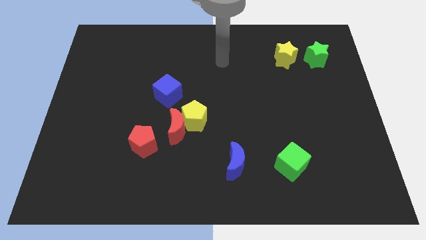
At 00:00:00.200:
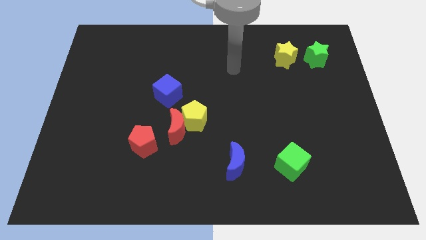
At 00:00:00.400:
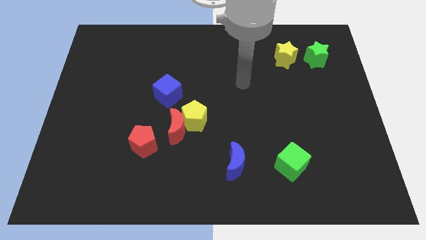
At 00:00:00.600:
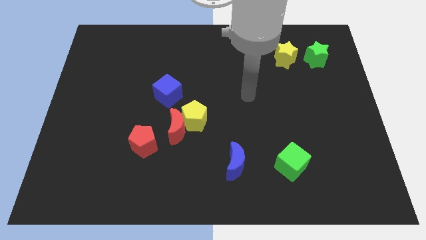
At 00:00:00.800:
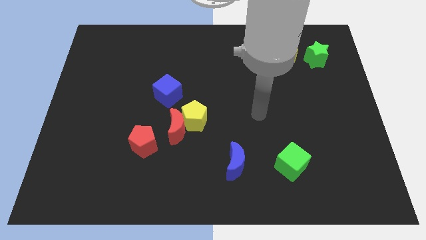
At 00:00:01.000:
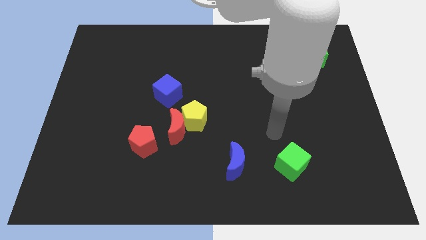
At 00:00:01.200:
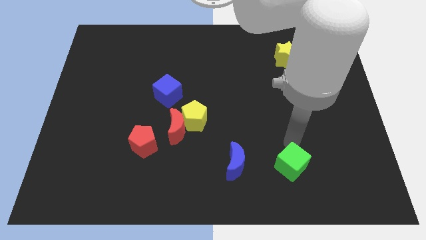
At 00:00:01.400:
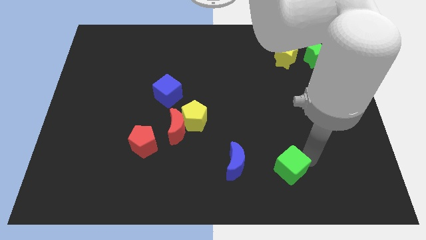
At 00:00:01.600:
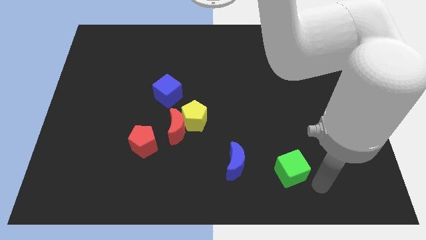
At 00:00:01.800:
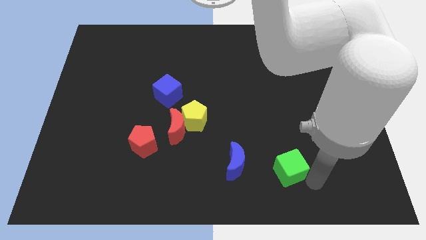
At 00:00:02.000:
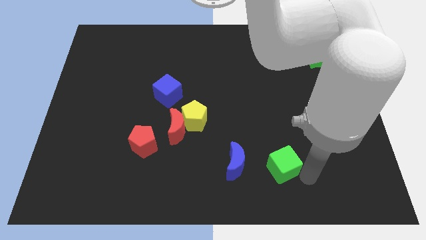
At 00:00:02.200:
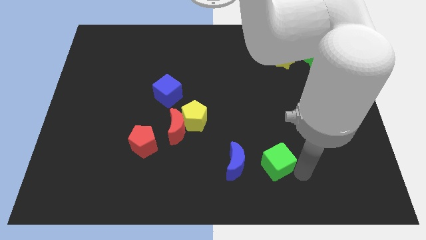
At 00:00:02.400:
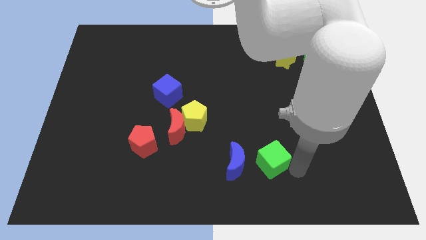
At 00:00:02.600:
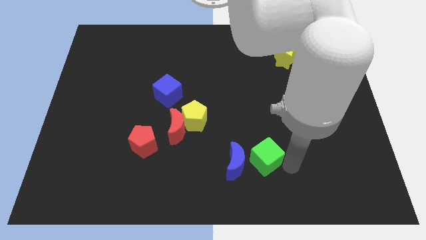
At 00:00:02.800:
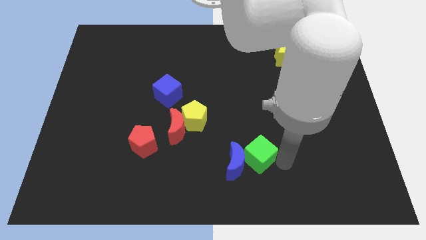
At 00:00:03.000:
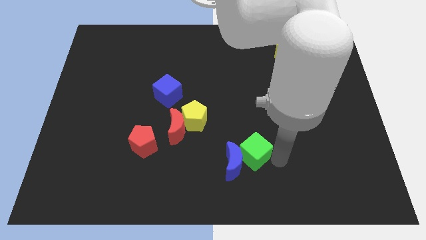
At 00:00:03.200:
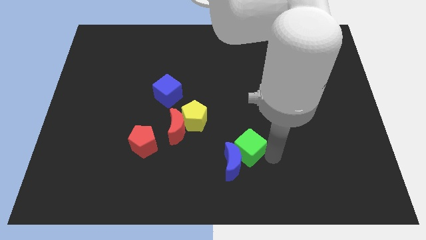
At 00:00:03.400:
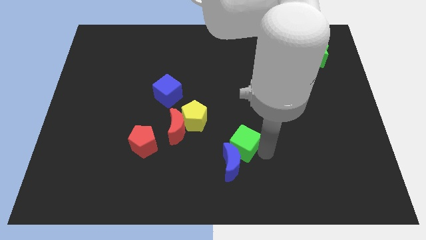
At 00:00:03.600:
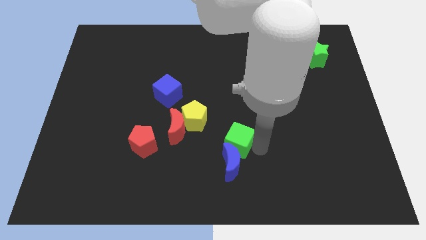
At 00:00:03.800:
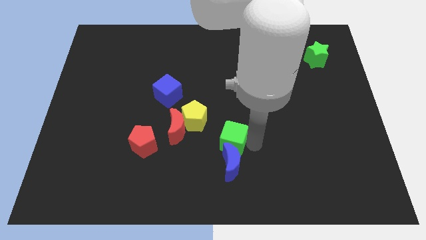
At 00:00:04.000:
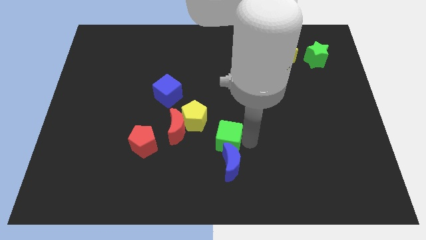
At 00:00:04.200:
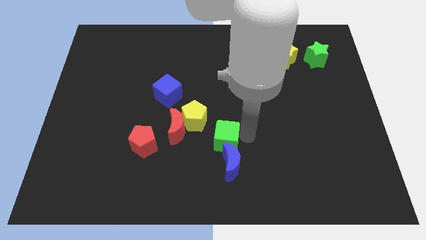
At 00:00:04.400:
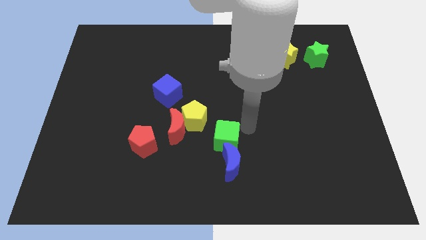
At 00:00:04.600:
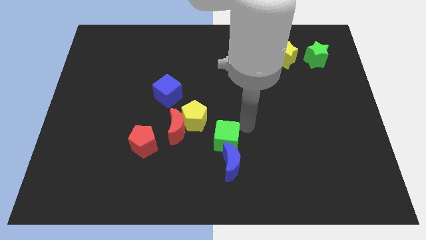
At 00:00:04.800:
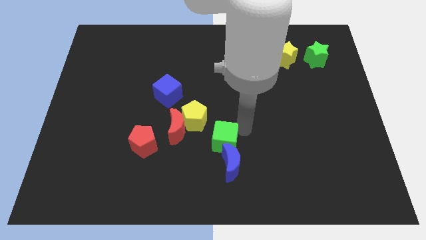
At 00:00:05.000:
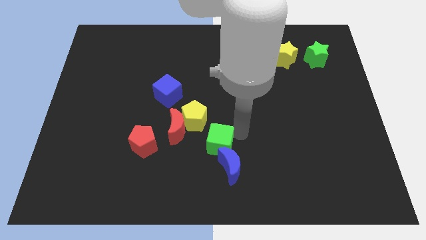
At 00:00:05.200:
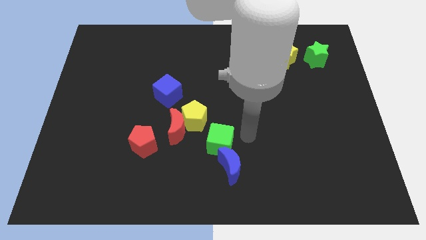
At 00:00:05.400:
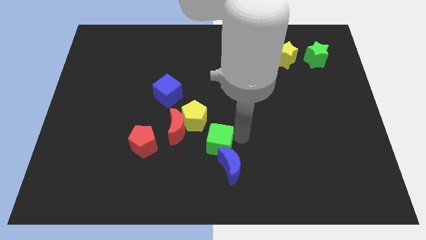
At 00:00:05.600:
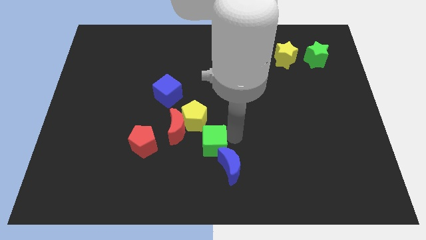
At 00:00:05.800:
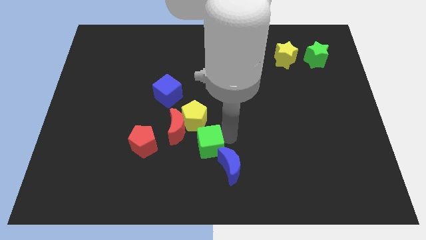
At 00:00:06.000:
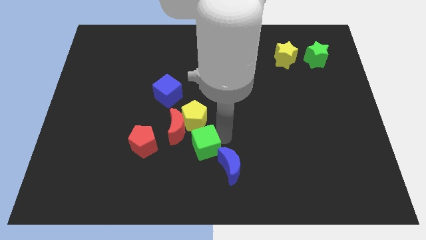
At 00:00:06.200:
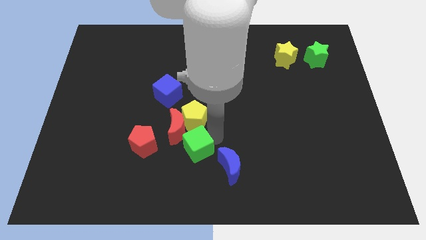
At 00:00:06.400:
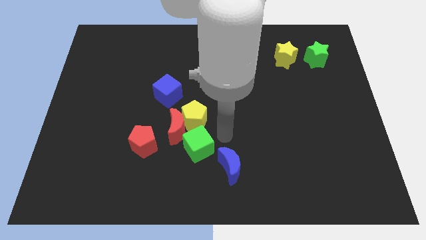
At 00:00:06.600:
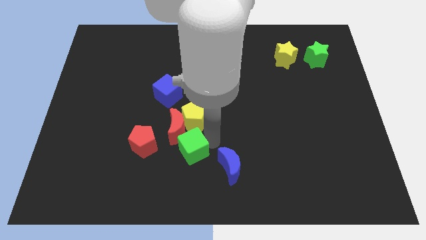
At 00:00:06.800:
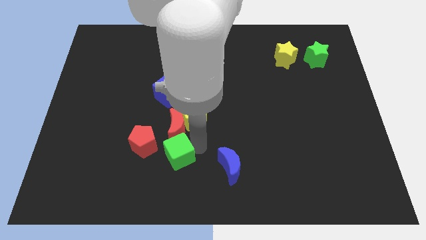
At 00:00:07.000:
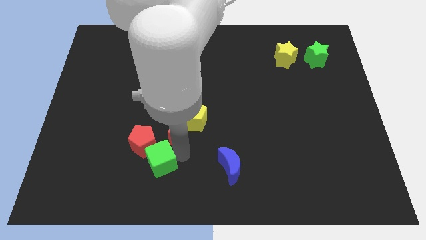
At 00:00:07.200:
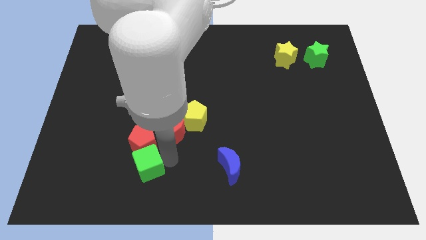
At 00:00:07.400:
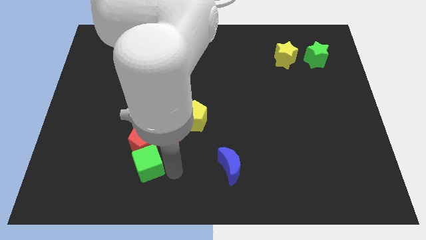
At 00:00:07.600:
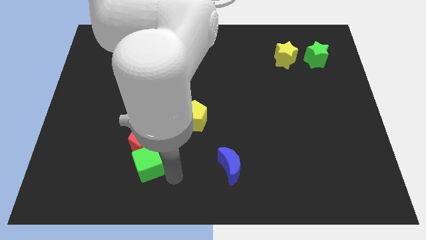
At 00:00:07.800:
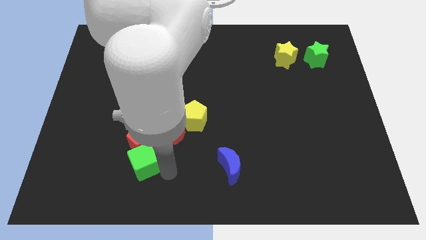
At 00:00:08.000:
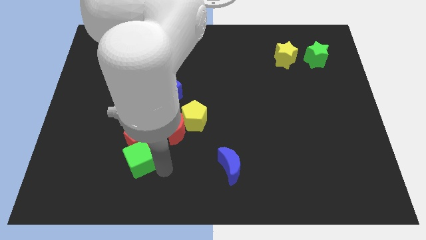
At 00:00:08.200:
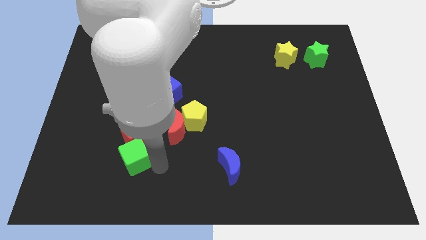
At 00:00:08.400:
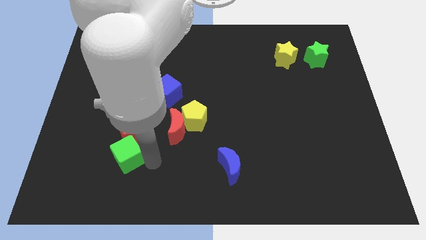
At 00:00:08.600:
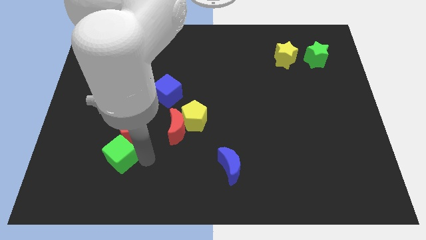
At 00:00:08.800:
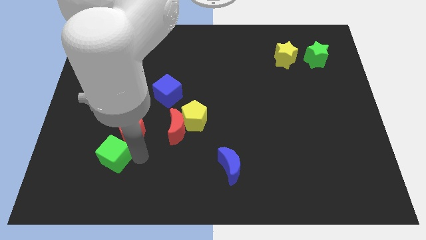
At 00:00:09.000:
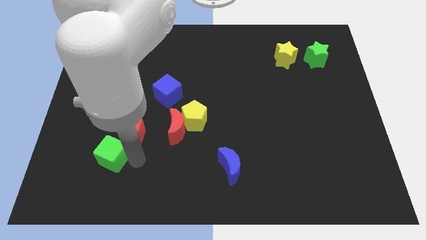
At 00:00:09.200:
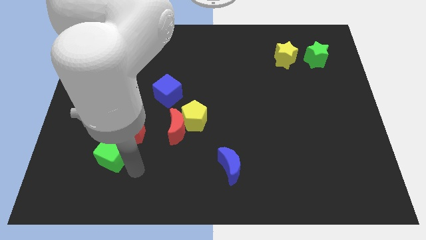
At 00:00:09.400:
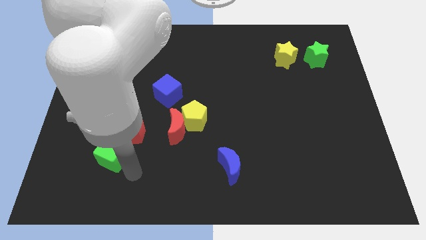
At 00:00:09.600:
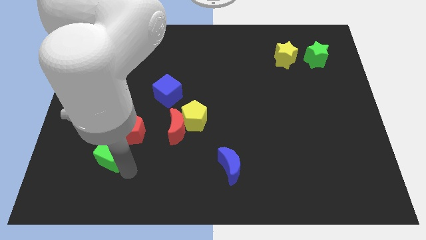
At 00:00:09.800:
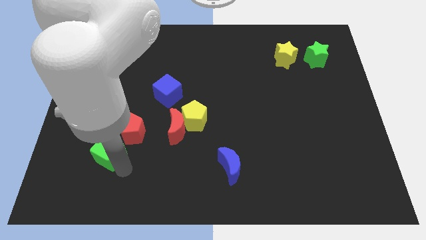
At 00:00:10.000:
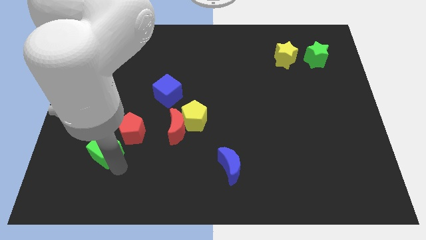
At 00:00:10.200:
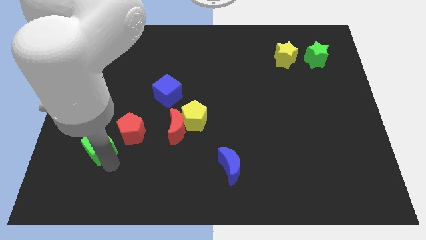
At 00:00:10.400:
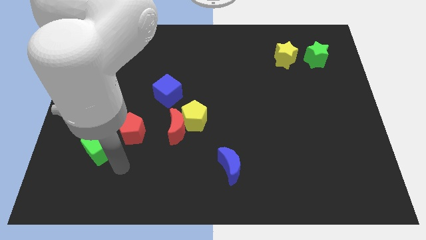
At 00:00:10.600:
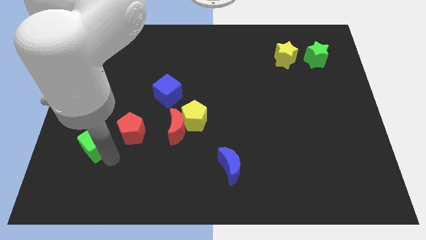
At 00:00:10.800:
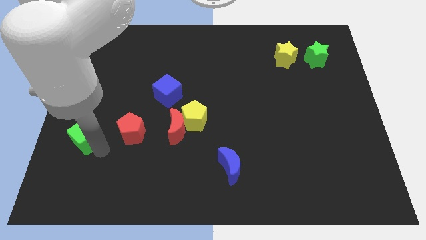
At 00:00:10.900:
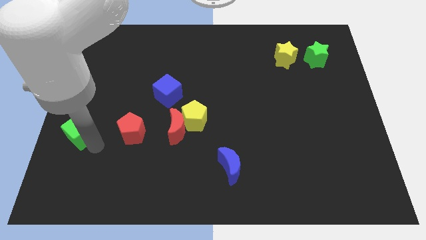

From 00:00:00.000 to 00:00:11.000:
put the green cube to the left side
